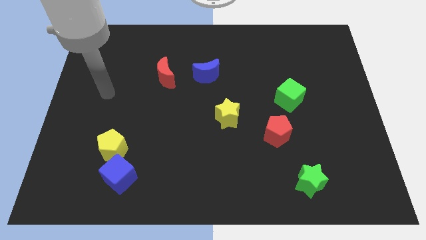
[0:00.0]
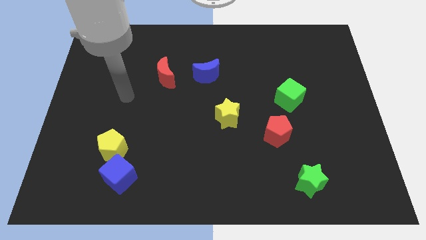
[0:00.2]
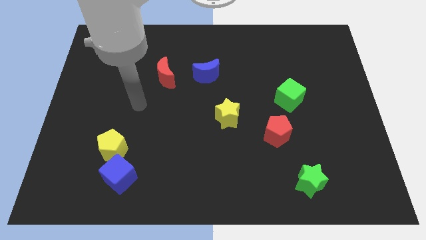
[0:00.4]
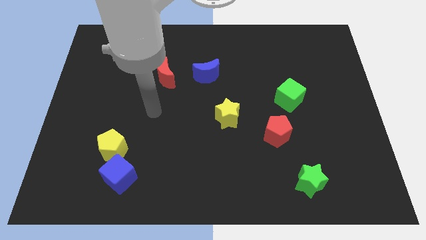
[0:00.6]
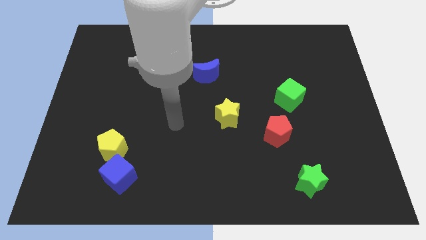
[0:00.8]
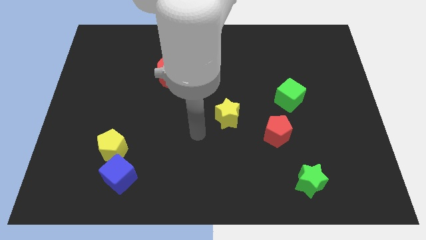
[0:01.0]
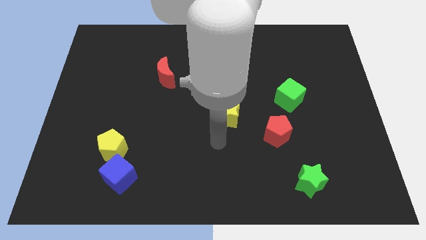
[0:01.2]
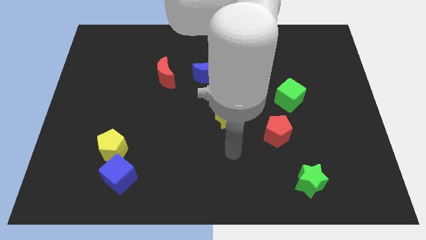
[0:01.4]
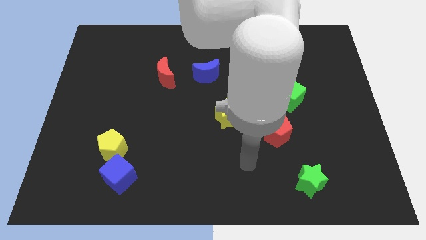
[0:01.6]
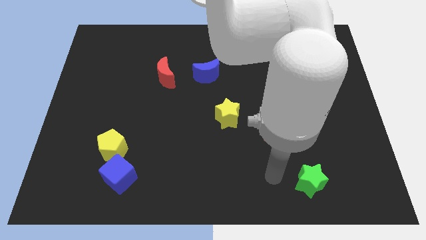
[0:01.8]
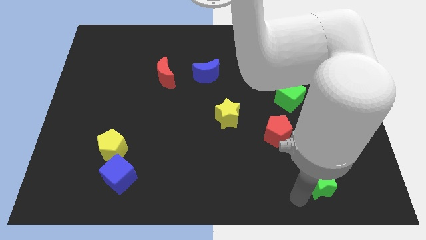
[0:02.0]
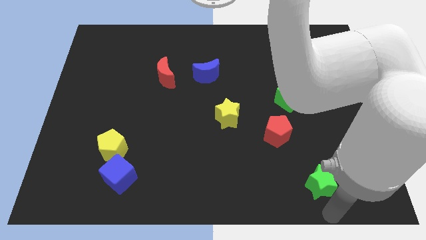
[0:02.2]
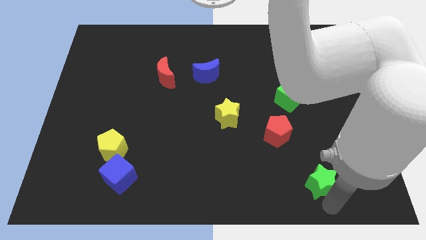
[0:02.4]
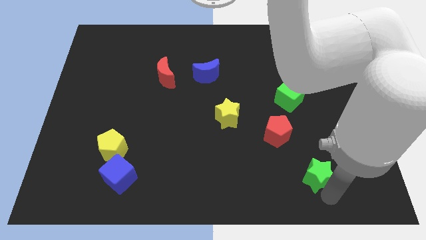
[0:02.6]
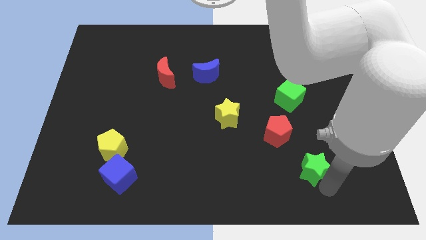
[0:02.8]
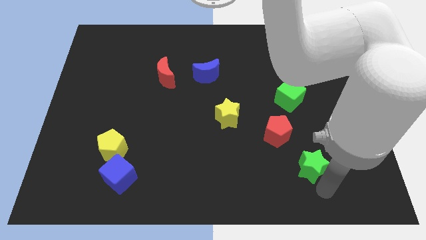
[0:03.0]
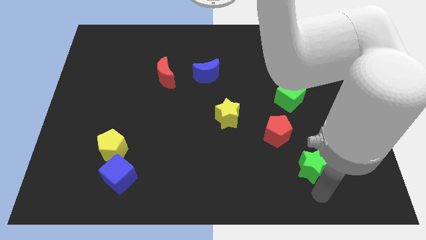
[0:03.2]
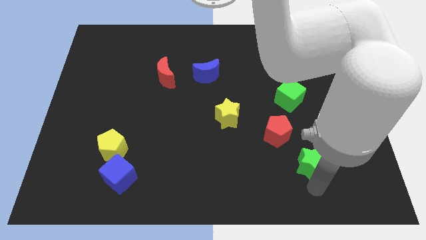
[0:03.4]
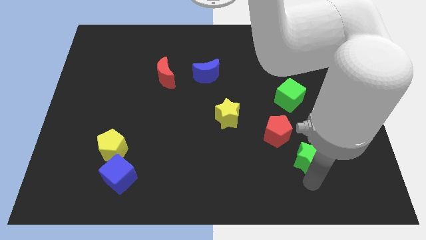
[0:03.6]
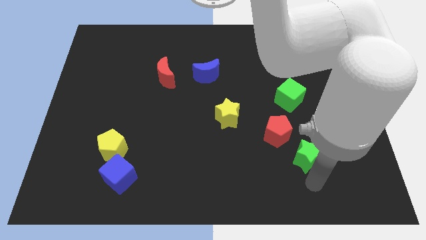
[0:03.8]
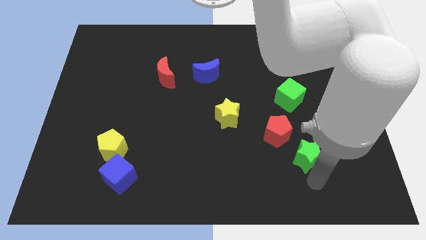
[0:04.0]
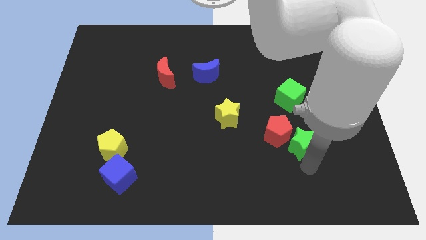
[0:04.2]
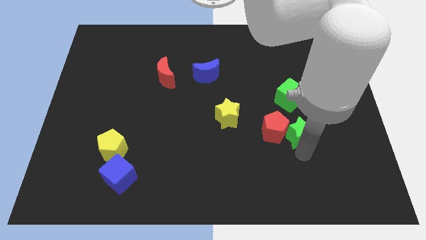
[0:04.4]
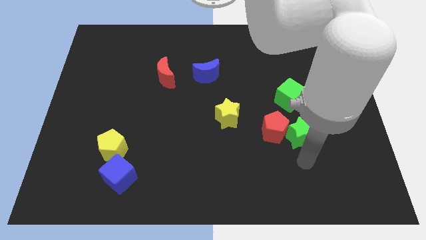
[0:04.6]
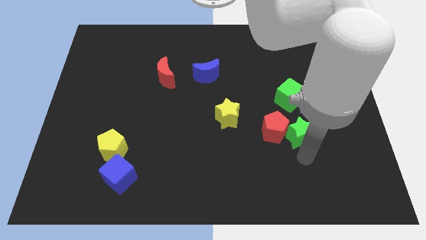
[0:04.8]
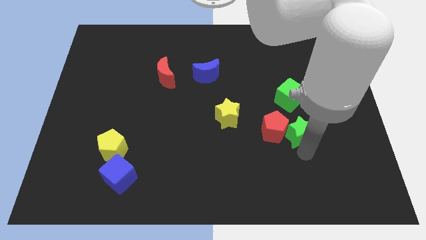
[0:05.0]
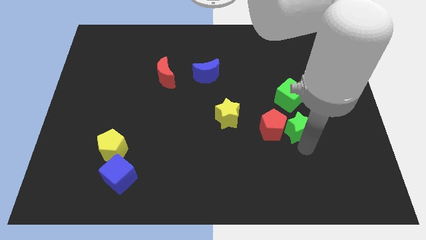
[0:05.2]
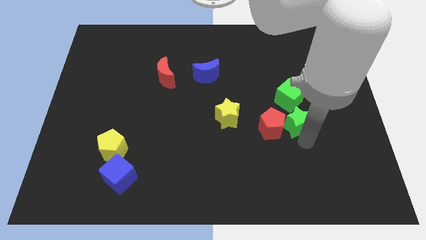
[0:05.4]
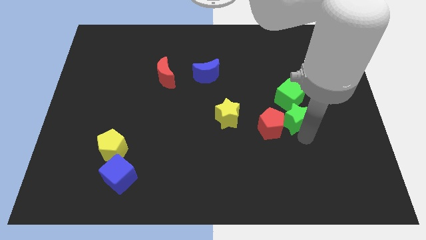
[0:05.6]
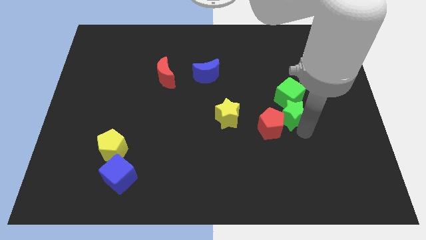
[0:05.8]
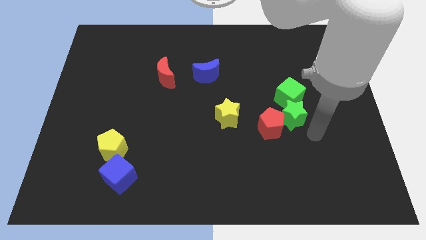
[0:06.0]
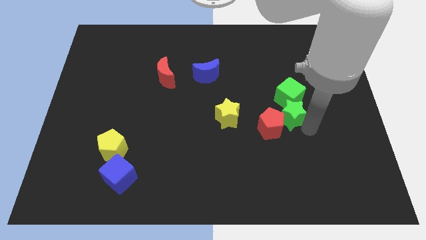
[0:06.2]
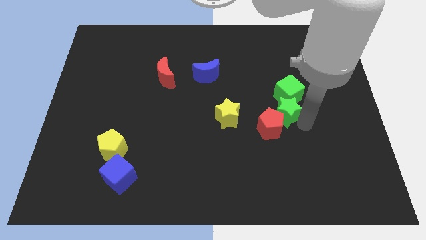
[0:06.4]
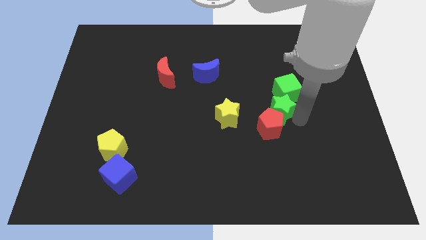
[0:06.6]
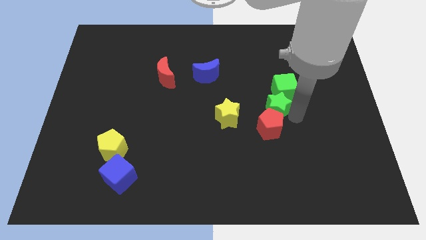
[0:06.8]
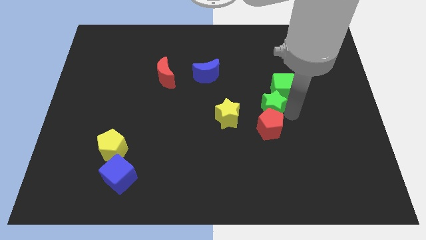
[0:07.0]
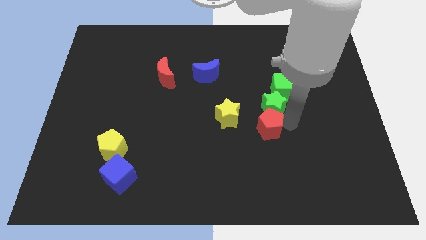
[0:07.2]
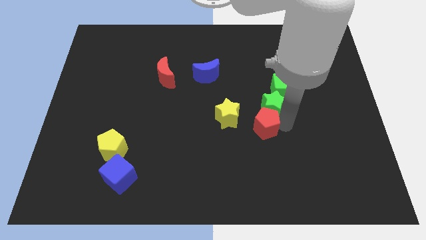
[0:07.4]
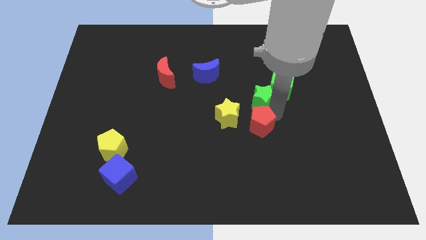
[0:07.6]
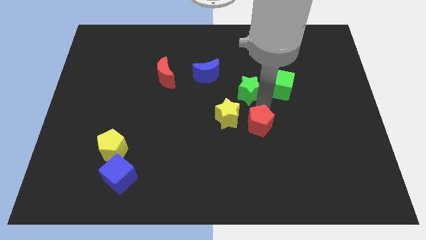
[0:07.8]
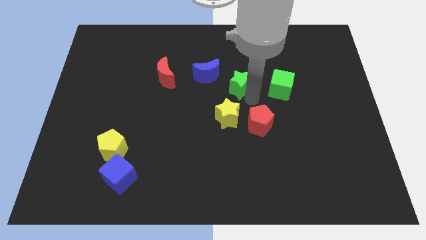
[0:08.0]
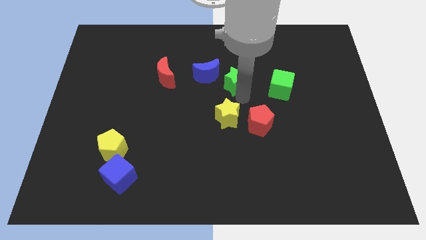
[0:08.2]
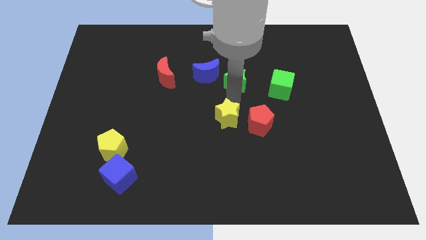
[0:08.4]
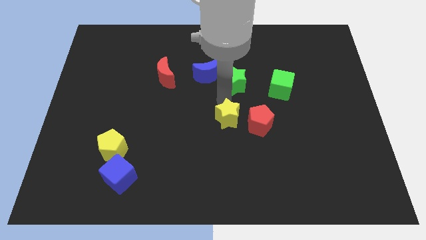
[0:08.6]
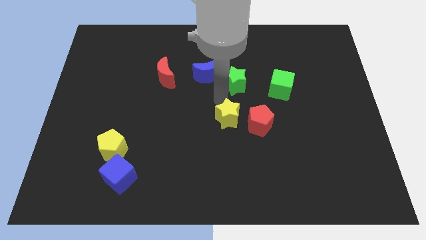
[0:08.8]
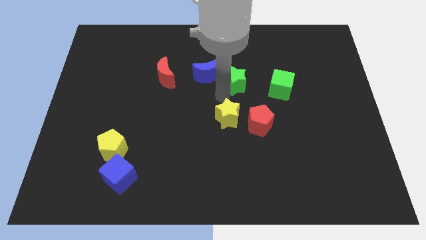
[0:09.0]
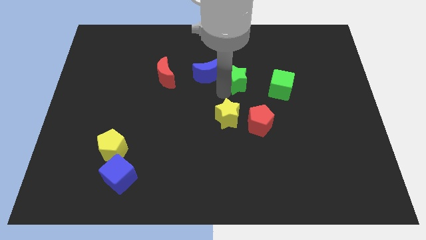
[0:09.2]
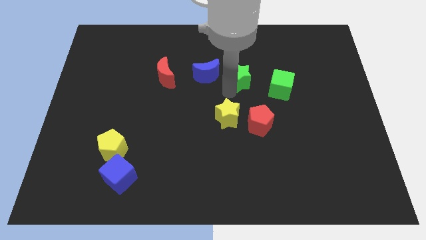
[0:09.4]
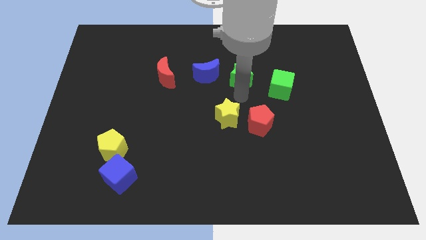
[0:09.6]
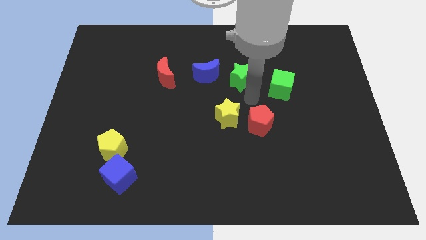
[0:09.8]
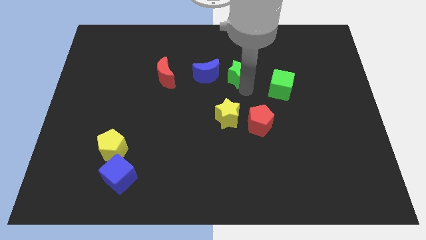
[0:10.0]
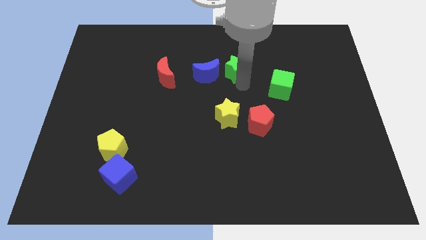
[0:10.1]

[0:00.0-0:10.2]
move the green star to the top right of the blue moon

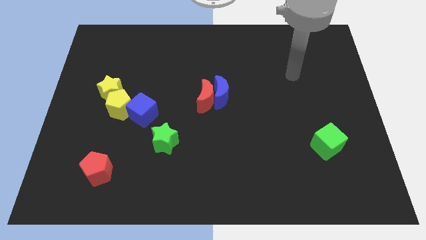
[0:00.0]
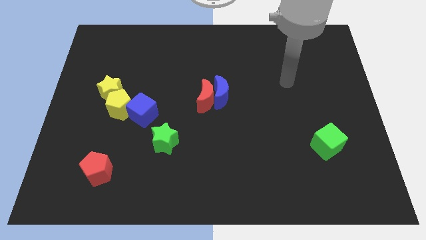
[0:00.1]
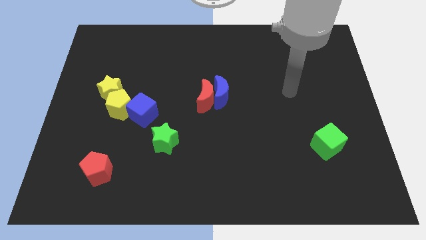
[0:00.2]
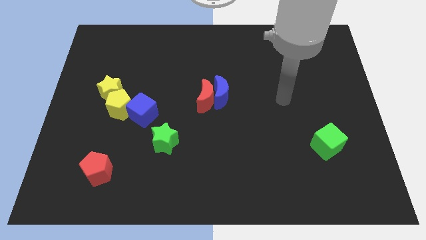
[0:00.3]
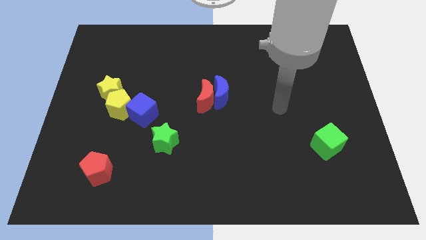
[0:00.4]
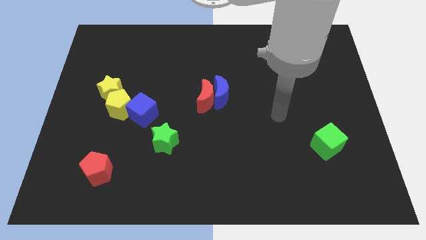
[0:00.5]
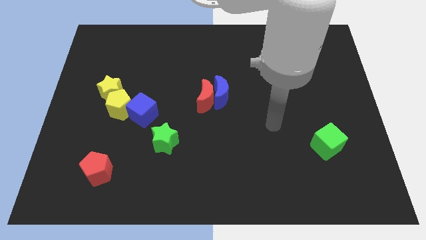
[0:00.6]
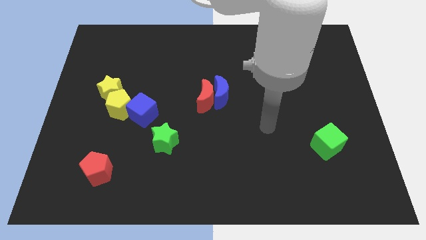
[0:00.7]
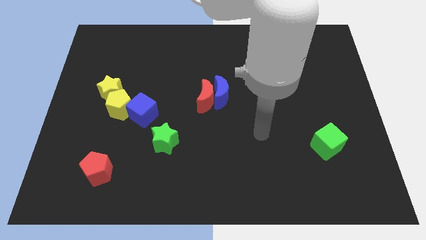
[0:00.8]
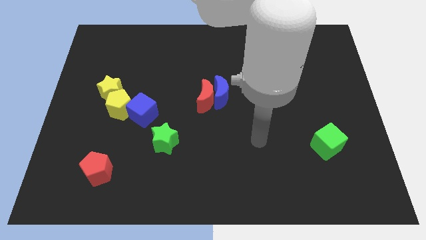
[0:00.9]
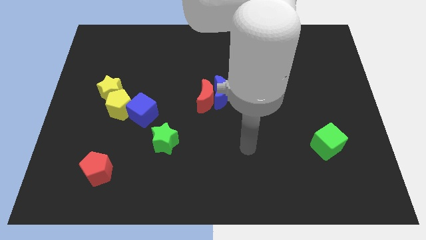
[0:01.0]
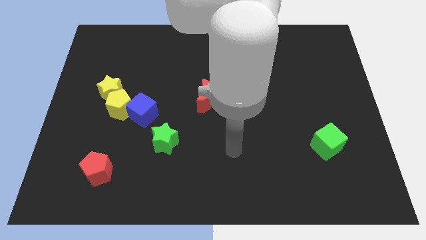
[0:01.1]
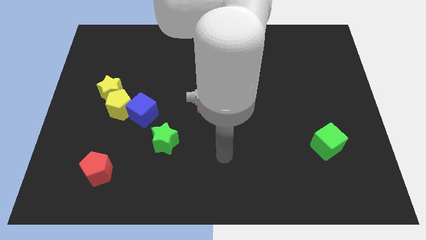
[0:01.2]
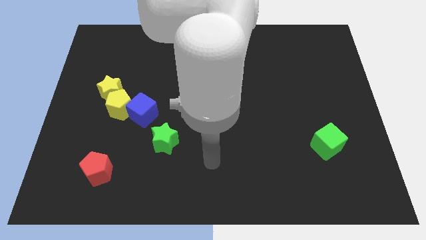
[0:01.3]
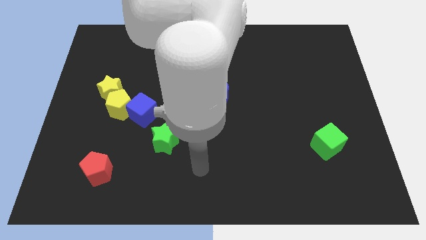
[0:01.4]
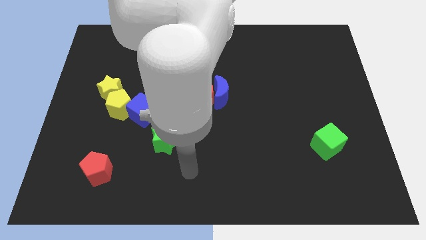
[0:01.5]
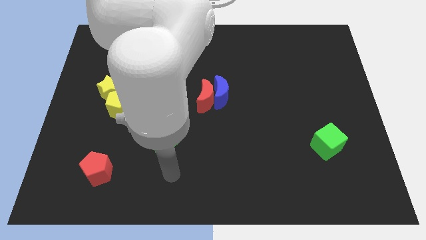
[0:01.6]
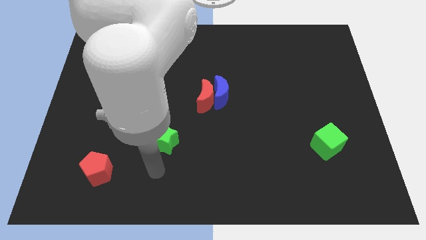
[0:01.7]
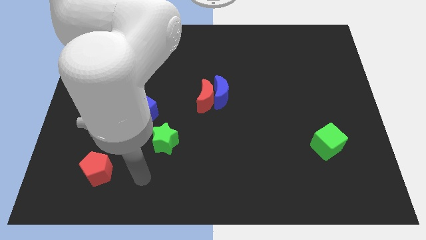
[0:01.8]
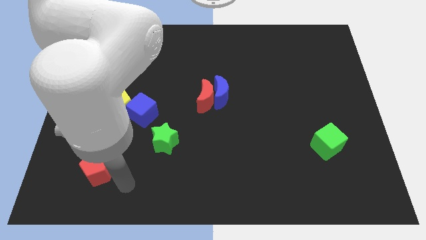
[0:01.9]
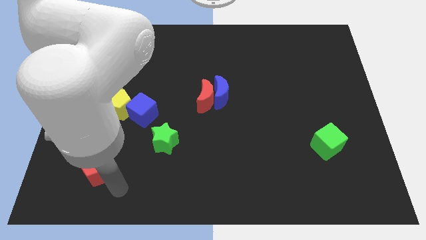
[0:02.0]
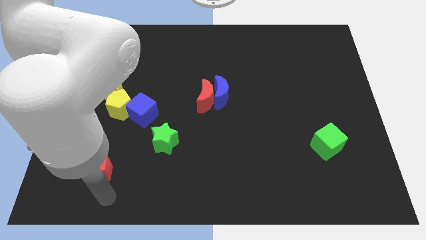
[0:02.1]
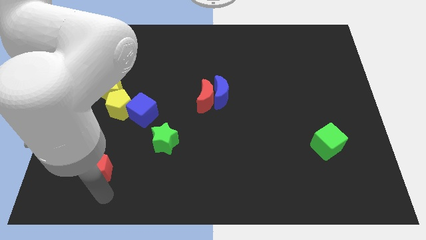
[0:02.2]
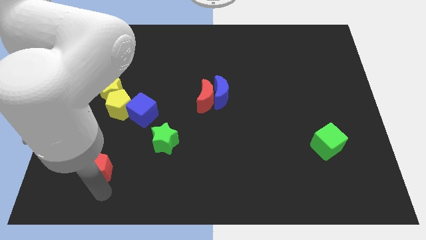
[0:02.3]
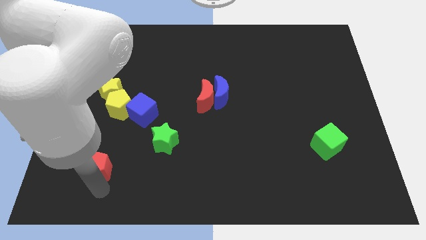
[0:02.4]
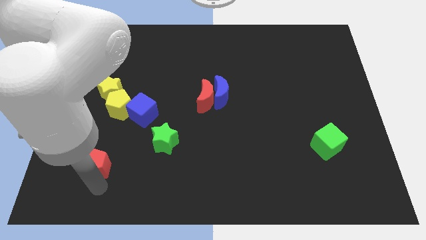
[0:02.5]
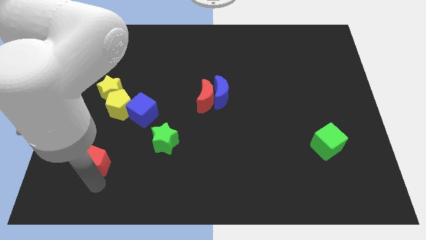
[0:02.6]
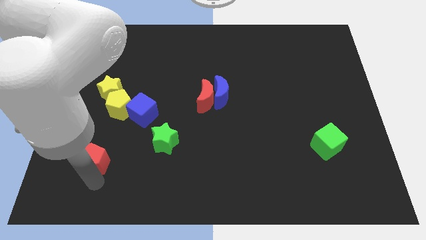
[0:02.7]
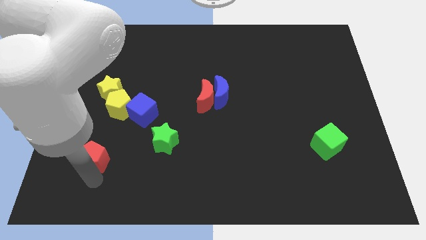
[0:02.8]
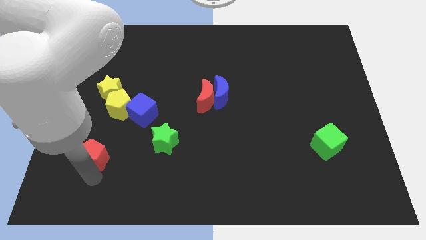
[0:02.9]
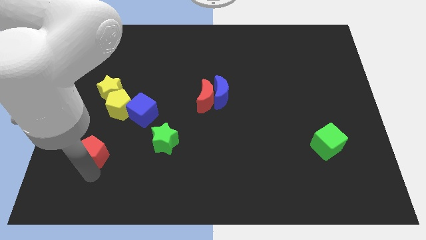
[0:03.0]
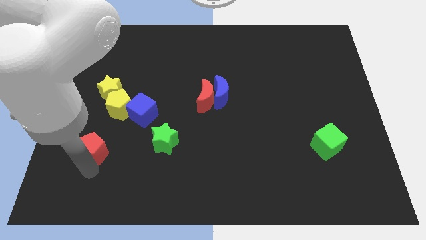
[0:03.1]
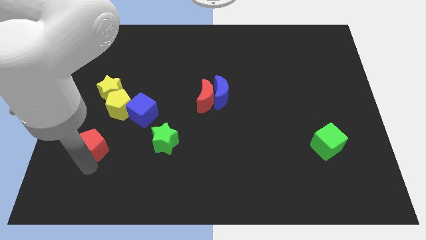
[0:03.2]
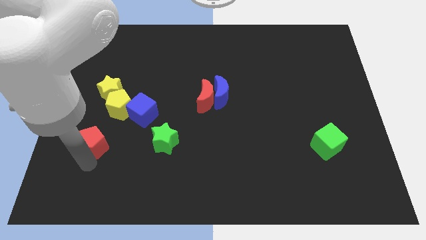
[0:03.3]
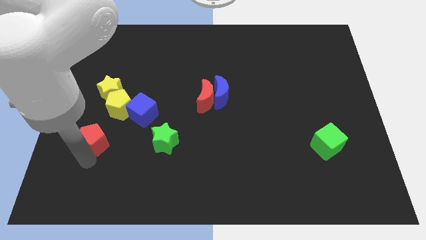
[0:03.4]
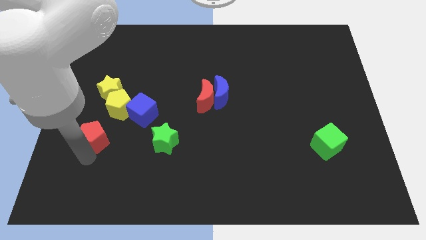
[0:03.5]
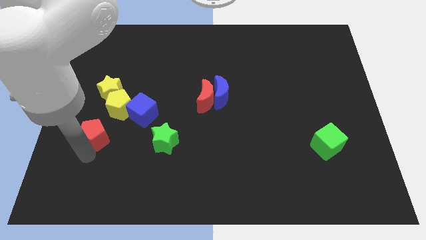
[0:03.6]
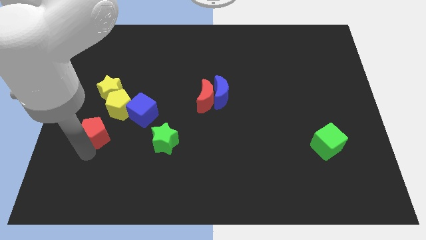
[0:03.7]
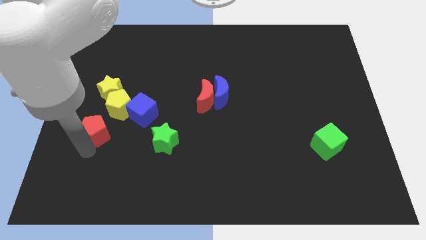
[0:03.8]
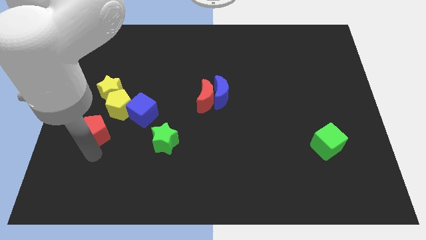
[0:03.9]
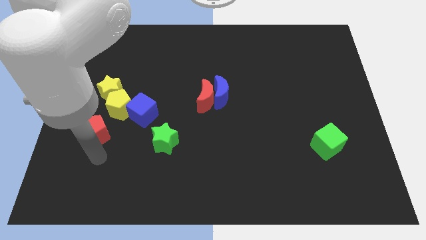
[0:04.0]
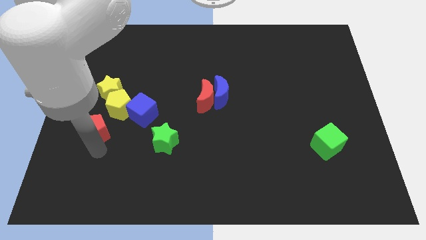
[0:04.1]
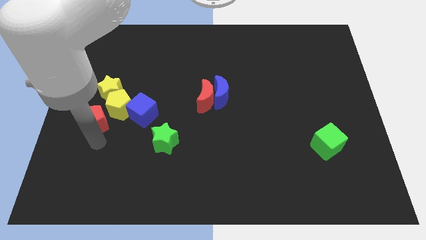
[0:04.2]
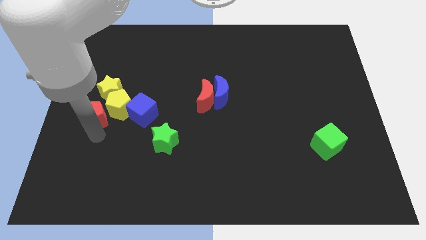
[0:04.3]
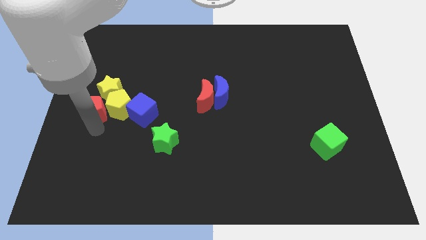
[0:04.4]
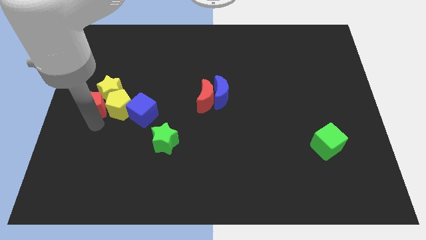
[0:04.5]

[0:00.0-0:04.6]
put the red pentagon to the top left of the yellow pentagon
